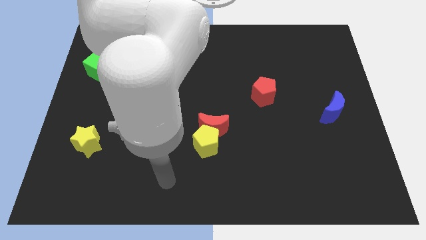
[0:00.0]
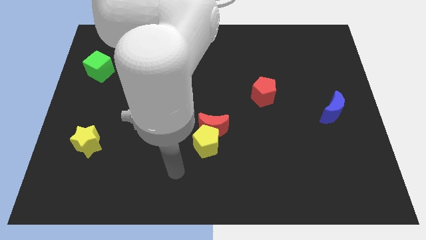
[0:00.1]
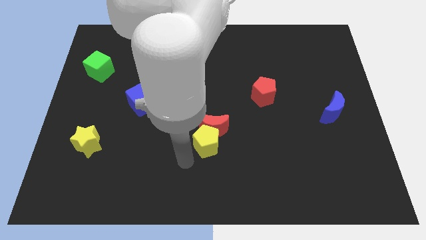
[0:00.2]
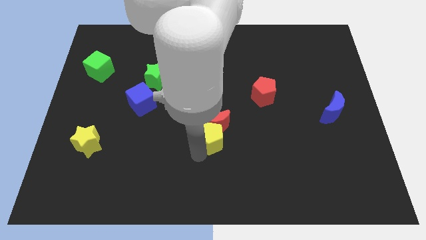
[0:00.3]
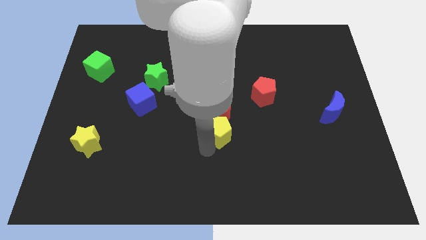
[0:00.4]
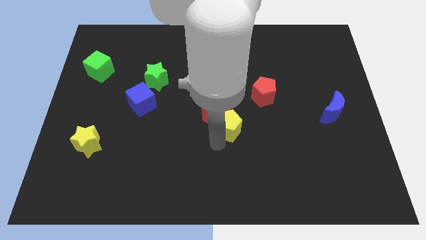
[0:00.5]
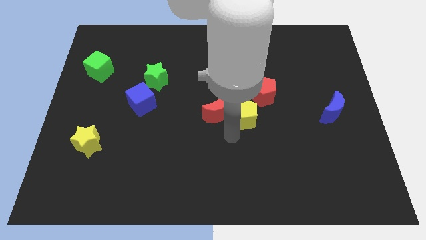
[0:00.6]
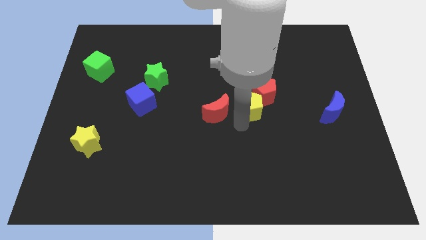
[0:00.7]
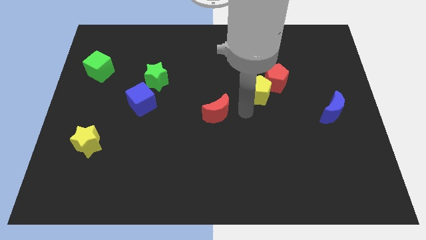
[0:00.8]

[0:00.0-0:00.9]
pull the red moon apart from the yellow pentagon

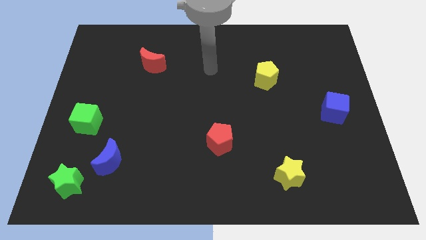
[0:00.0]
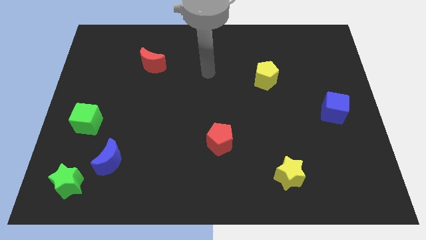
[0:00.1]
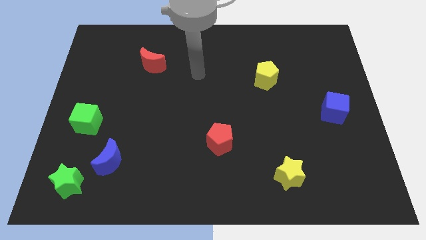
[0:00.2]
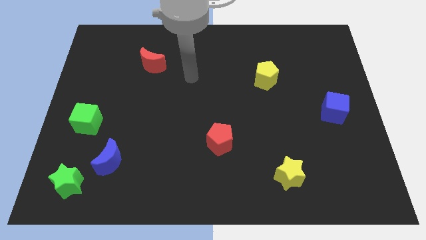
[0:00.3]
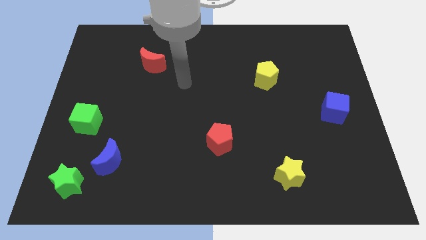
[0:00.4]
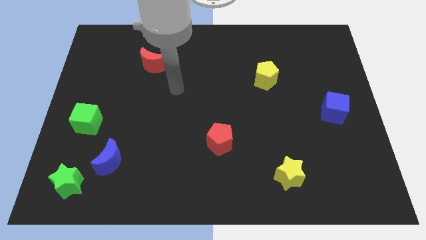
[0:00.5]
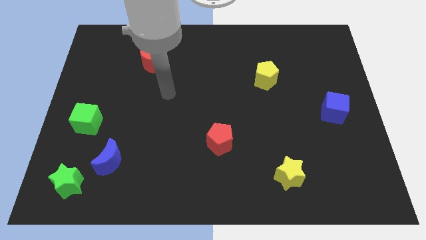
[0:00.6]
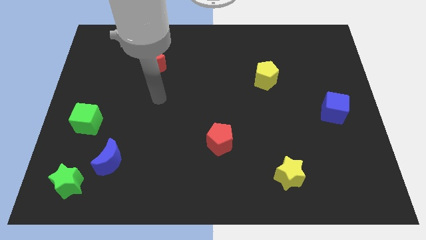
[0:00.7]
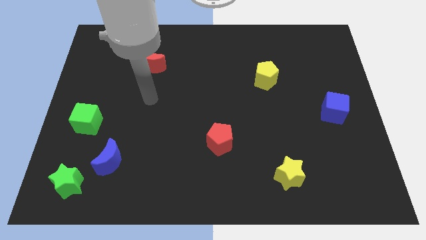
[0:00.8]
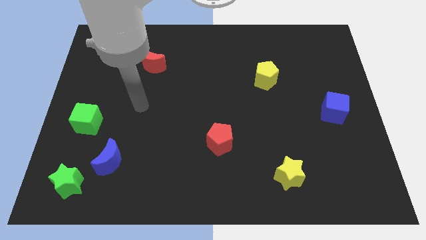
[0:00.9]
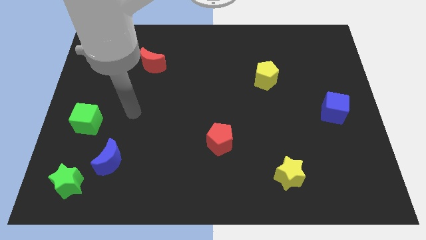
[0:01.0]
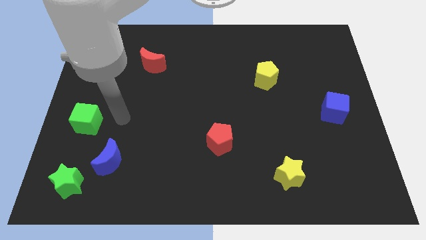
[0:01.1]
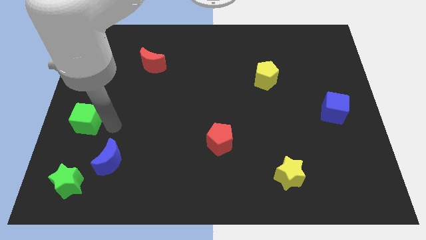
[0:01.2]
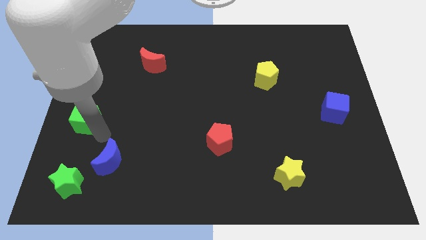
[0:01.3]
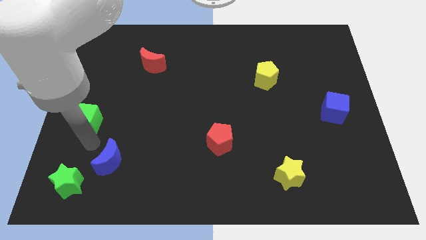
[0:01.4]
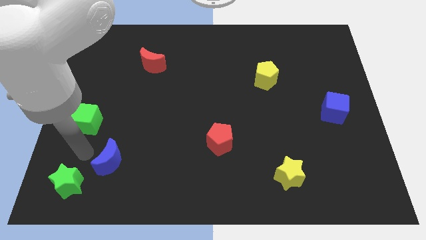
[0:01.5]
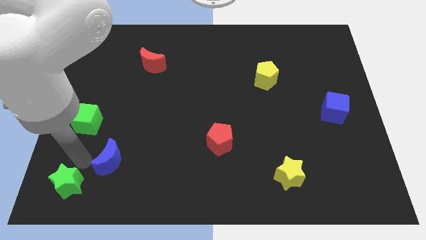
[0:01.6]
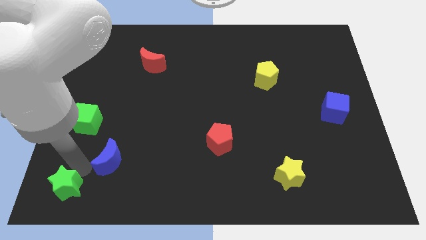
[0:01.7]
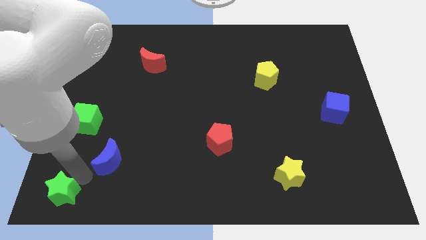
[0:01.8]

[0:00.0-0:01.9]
move the blue moon away from the green star

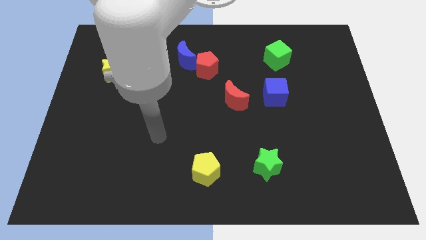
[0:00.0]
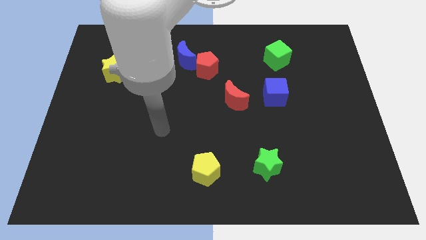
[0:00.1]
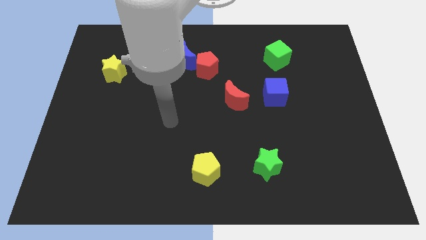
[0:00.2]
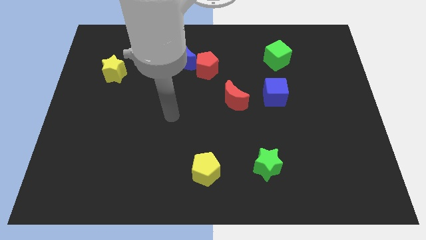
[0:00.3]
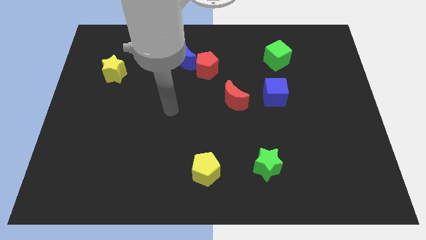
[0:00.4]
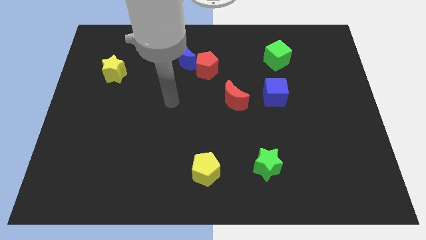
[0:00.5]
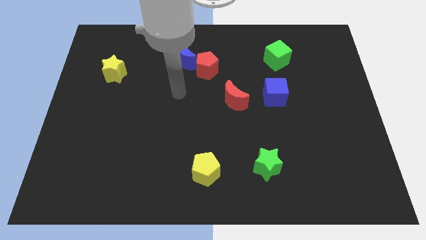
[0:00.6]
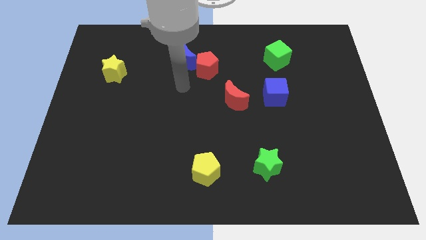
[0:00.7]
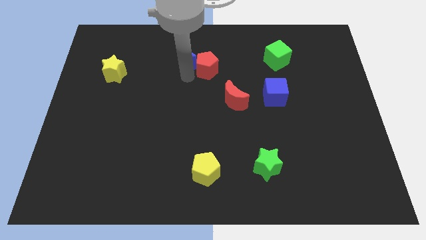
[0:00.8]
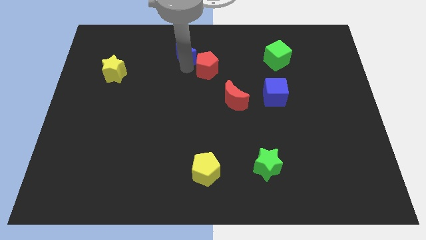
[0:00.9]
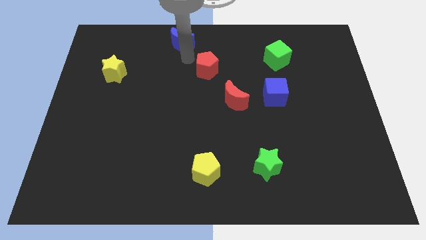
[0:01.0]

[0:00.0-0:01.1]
pull the red pentagon apart from the blue moon

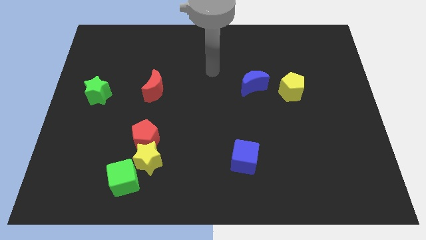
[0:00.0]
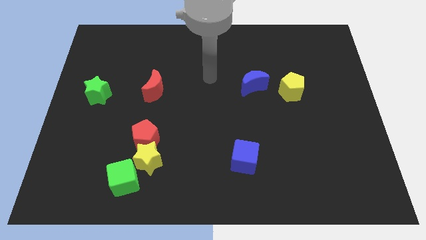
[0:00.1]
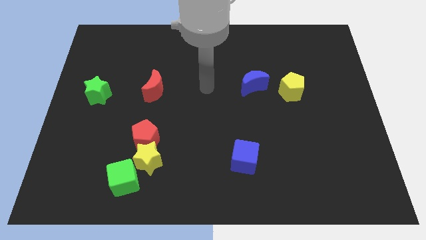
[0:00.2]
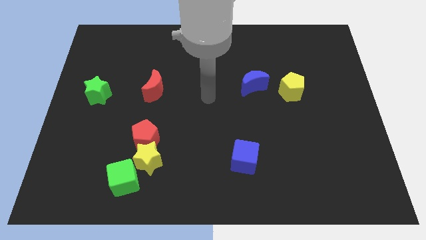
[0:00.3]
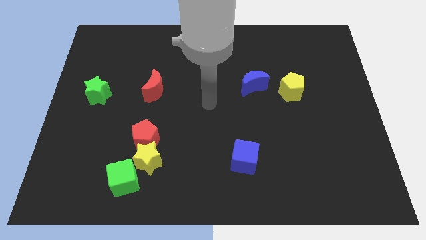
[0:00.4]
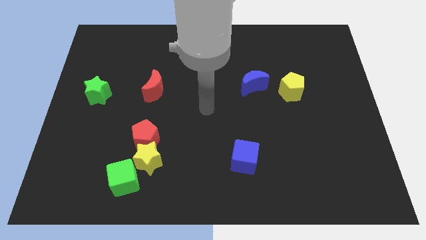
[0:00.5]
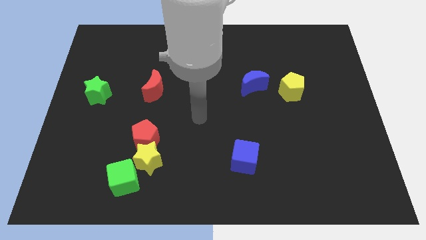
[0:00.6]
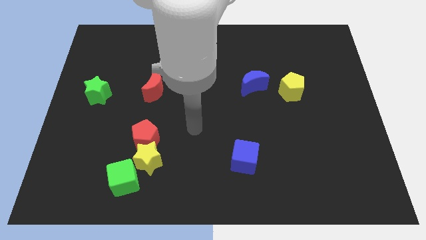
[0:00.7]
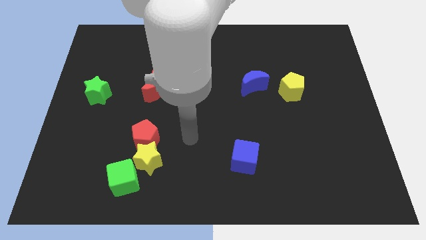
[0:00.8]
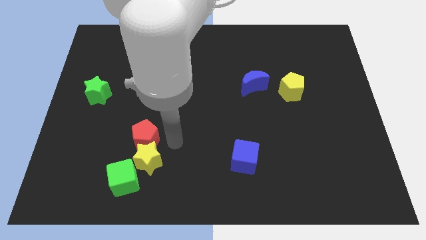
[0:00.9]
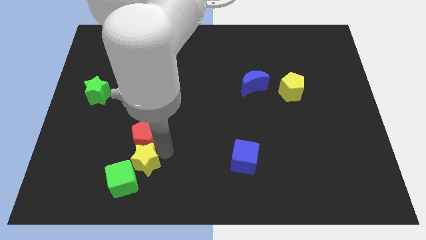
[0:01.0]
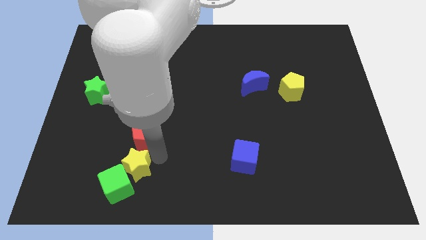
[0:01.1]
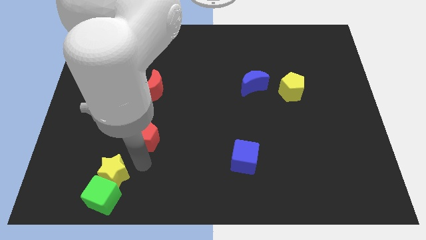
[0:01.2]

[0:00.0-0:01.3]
pull the red pentagon apart from the yellow star

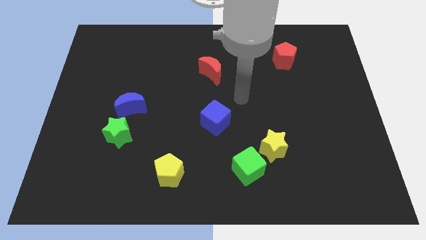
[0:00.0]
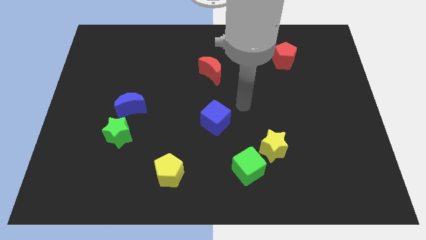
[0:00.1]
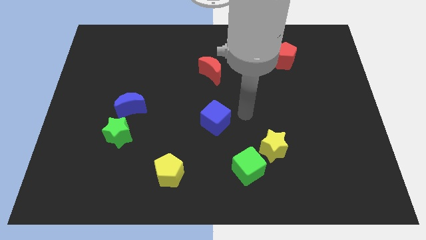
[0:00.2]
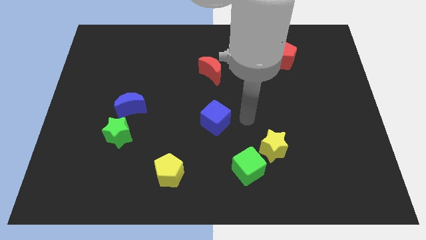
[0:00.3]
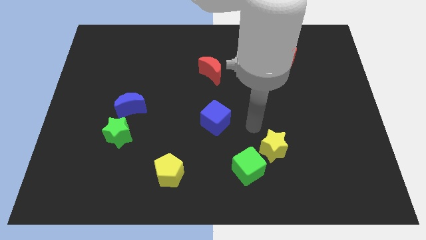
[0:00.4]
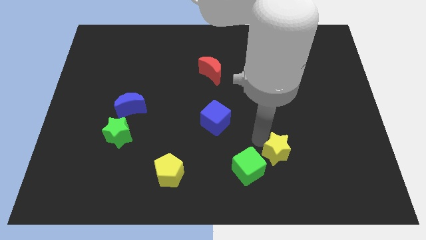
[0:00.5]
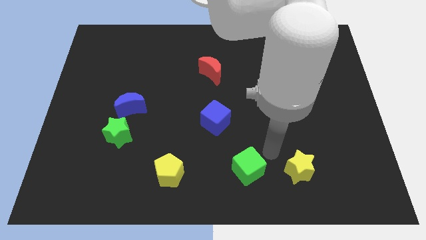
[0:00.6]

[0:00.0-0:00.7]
move the green cube away from the yellow star

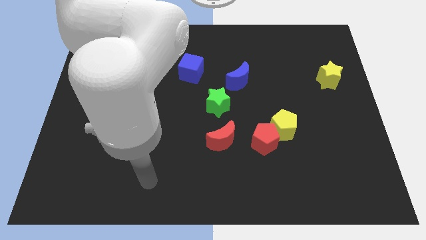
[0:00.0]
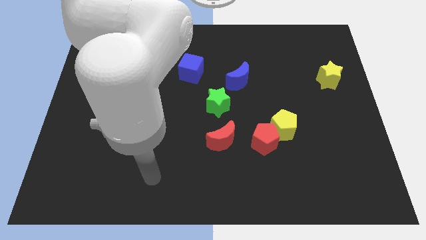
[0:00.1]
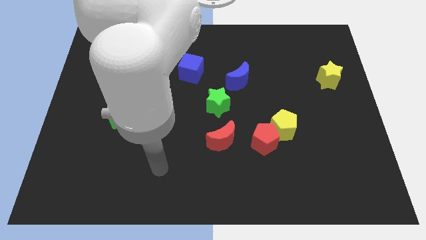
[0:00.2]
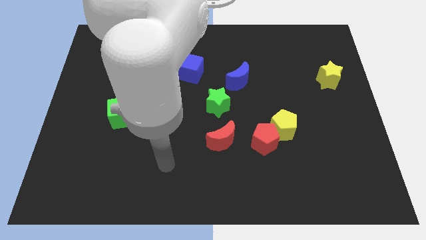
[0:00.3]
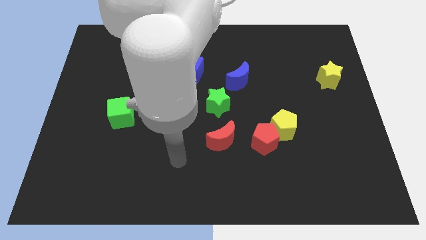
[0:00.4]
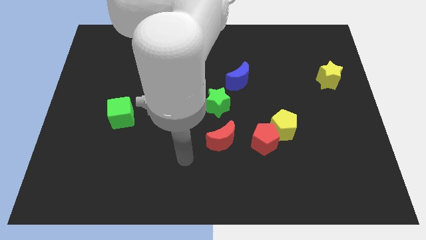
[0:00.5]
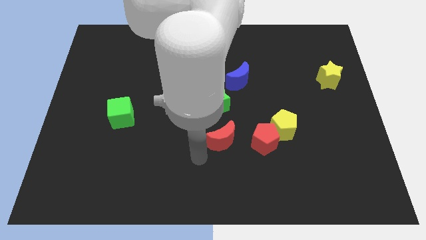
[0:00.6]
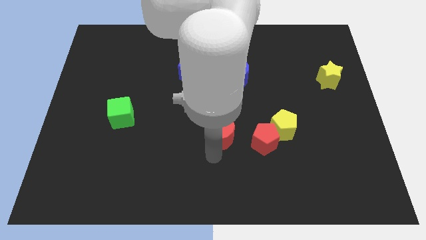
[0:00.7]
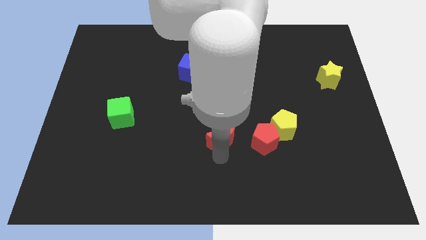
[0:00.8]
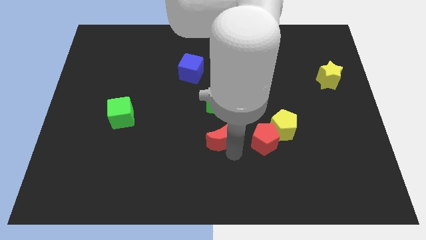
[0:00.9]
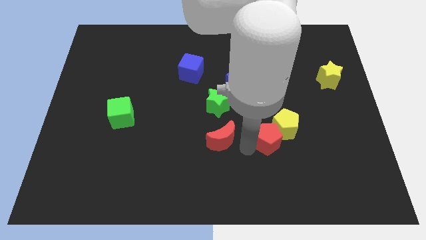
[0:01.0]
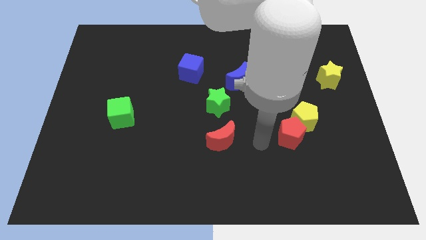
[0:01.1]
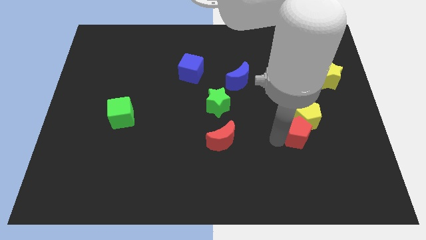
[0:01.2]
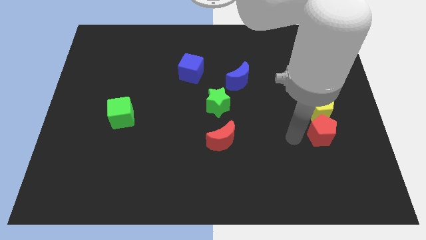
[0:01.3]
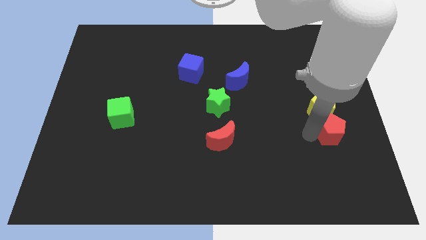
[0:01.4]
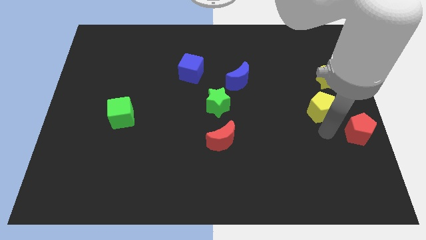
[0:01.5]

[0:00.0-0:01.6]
pull the yellow pentagon apart from the red pentagon

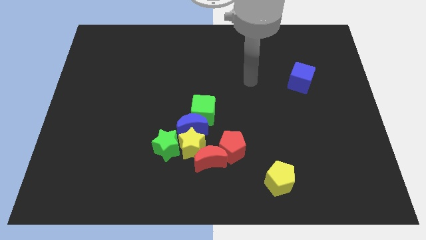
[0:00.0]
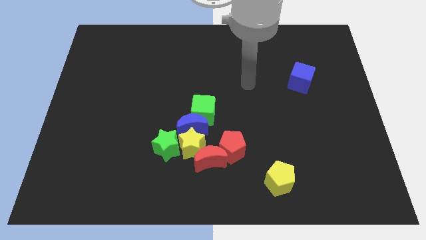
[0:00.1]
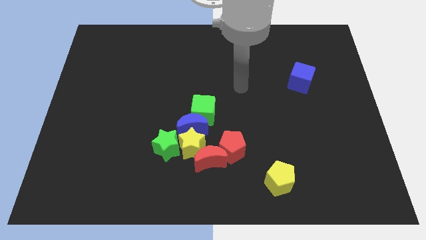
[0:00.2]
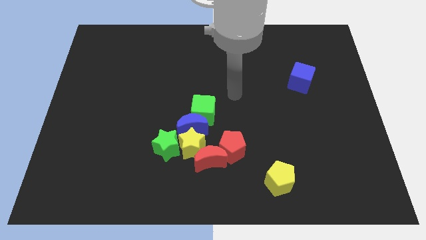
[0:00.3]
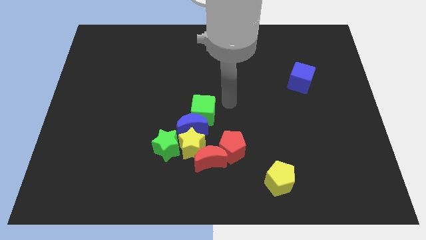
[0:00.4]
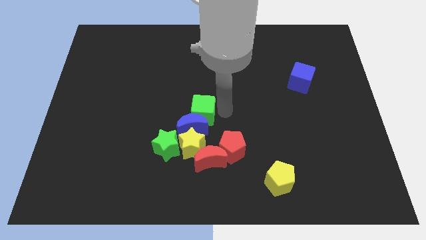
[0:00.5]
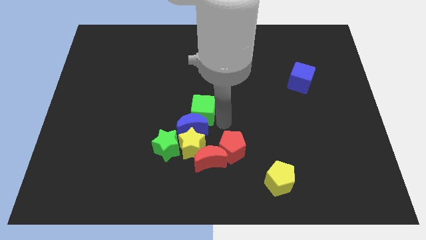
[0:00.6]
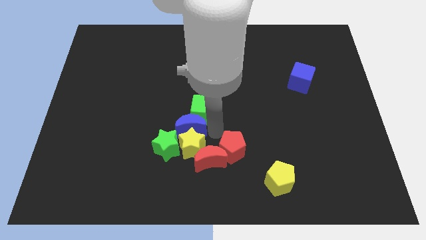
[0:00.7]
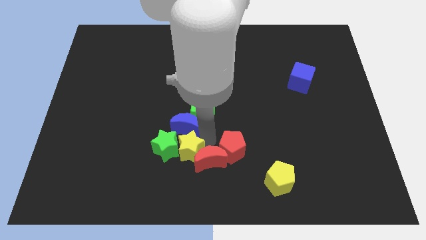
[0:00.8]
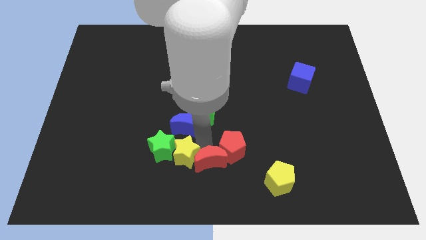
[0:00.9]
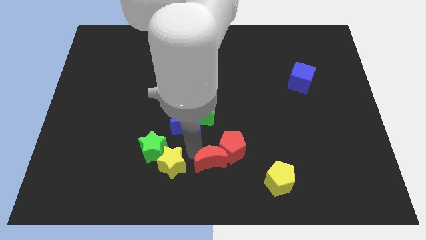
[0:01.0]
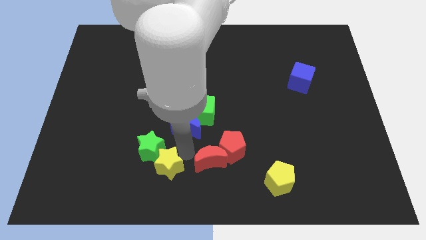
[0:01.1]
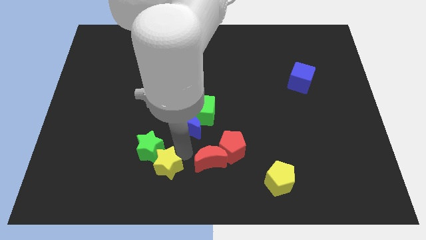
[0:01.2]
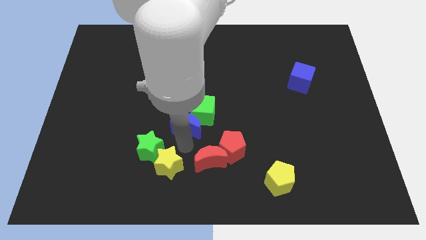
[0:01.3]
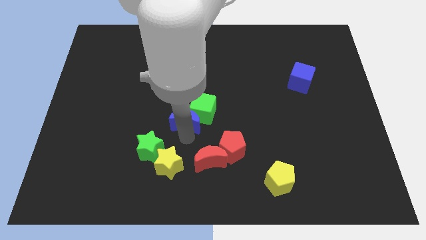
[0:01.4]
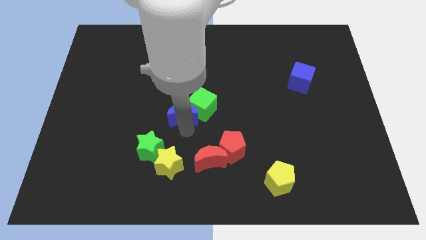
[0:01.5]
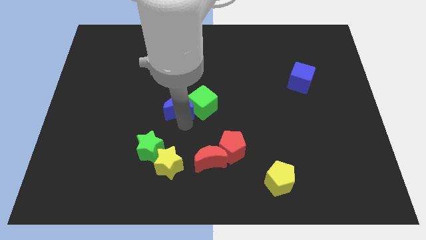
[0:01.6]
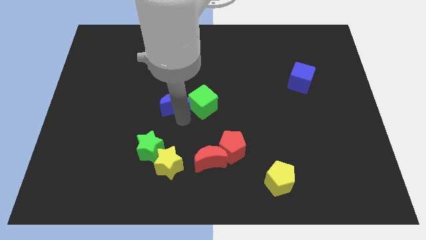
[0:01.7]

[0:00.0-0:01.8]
separate the blue moon from the group of blocks
